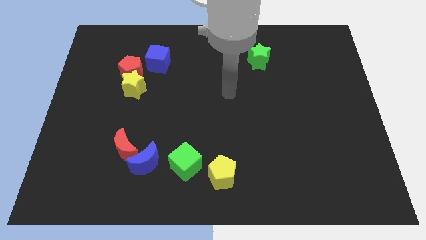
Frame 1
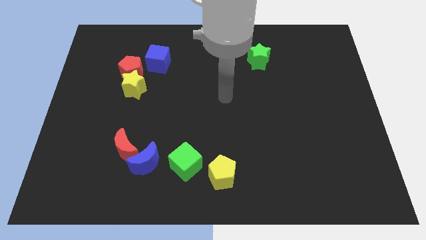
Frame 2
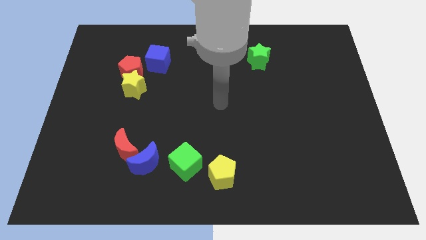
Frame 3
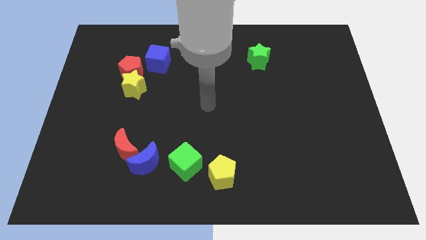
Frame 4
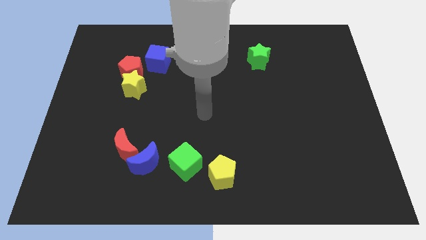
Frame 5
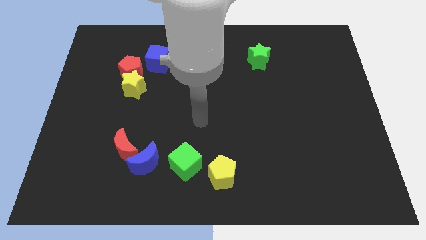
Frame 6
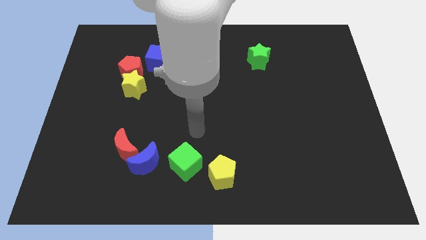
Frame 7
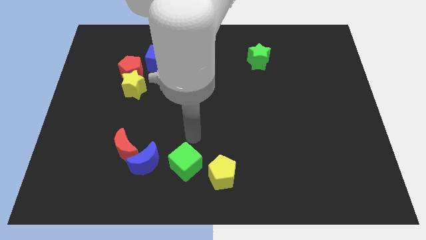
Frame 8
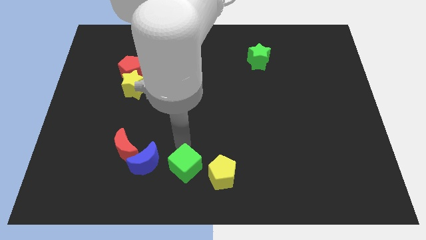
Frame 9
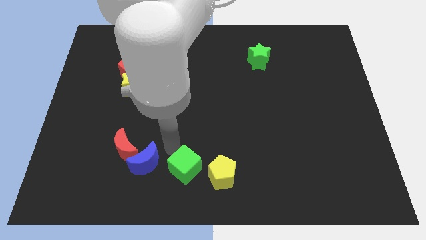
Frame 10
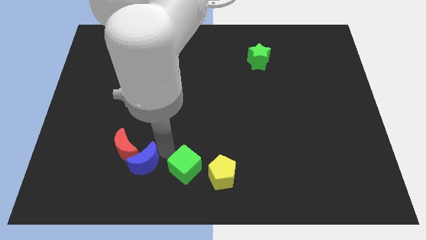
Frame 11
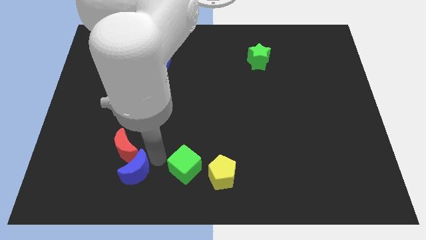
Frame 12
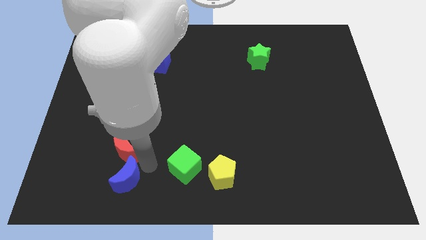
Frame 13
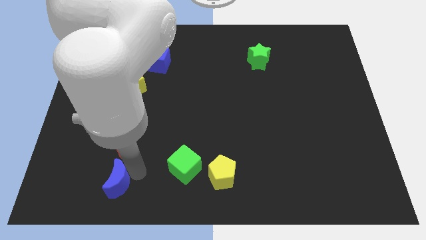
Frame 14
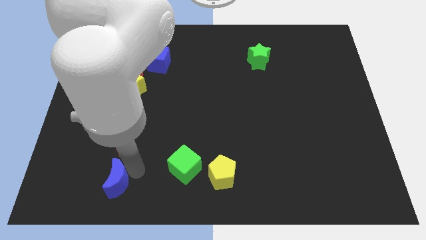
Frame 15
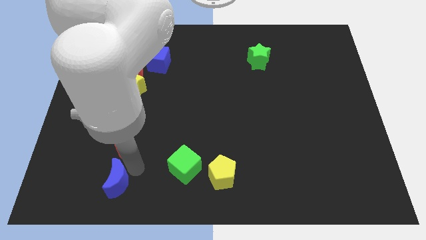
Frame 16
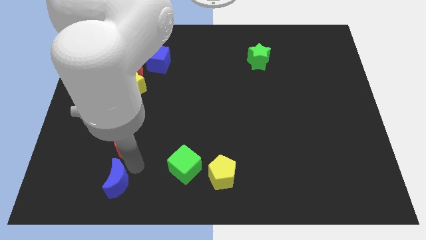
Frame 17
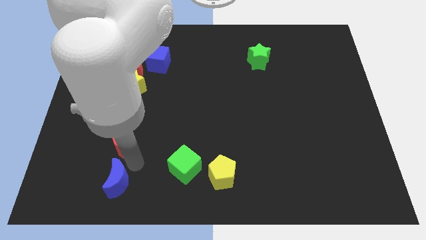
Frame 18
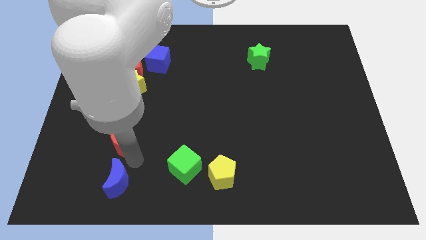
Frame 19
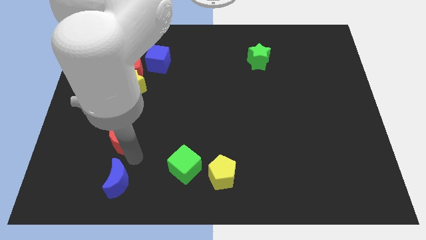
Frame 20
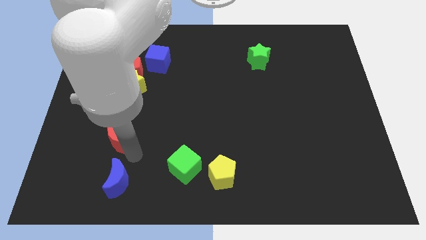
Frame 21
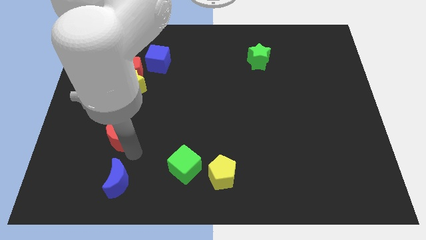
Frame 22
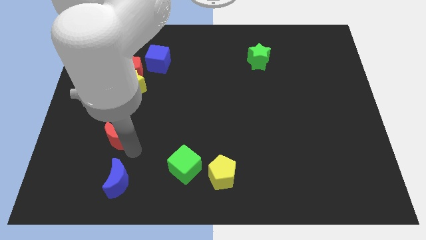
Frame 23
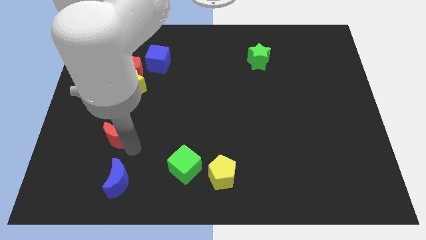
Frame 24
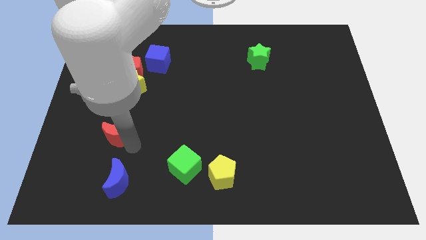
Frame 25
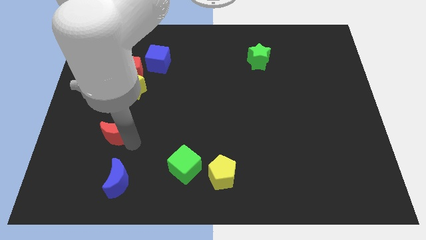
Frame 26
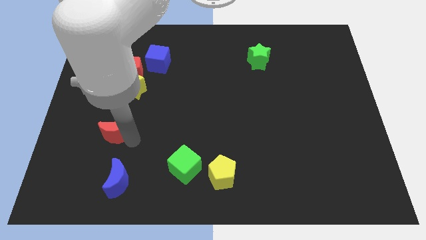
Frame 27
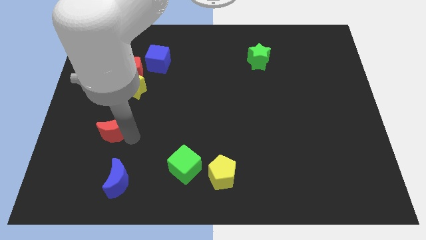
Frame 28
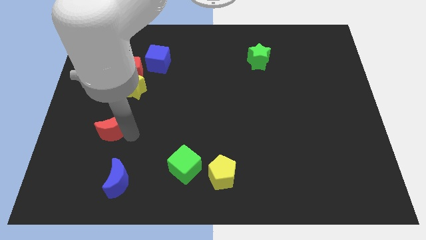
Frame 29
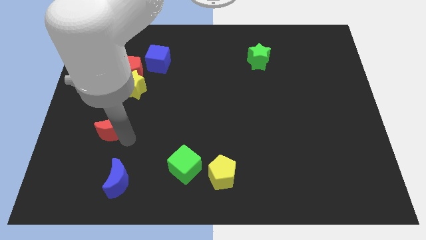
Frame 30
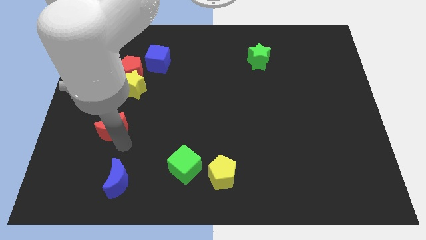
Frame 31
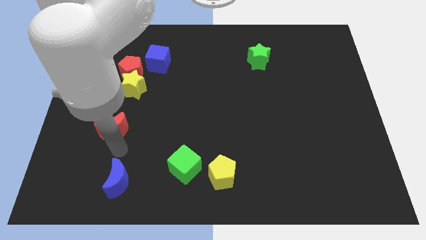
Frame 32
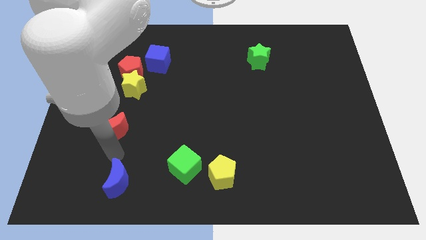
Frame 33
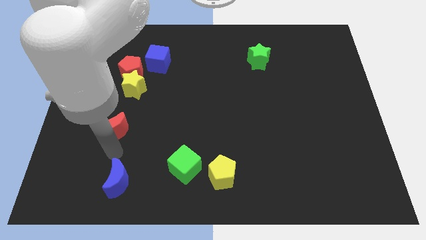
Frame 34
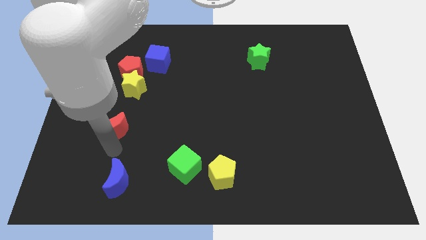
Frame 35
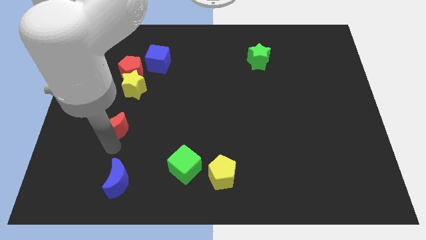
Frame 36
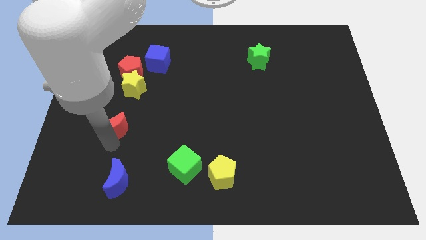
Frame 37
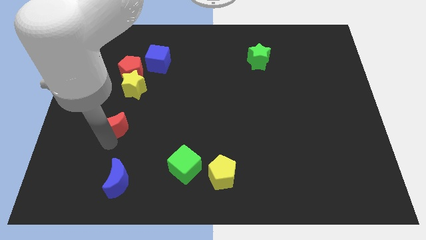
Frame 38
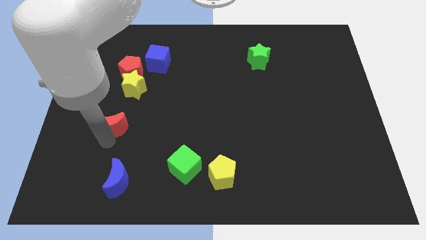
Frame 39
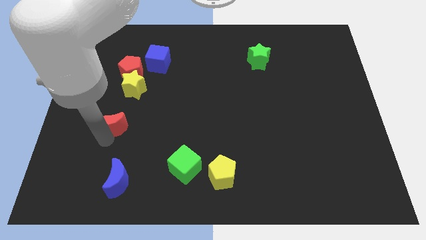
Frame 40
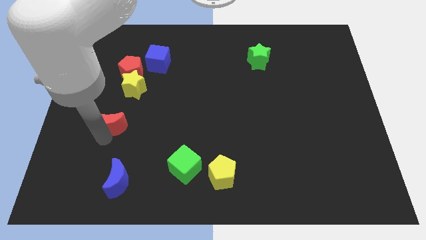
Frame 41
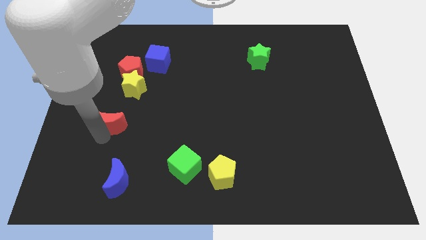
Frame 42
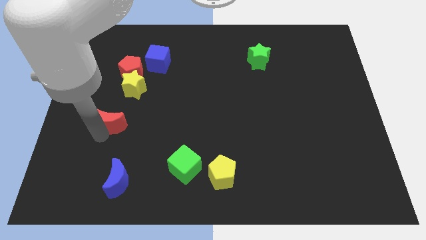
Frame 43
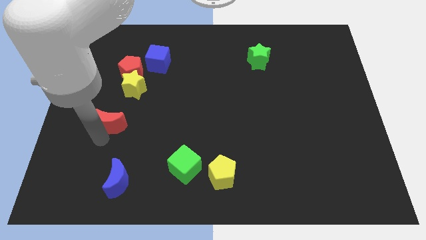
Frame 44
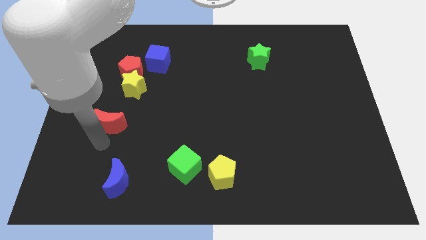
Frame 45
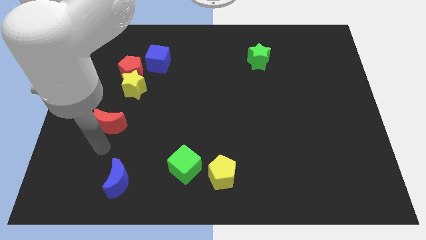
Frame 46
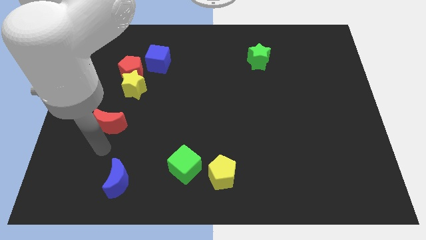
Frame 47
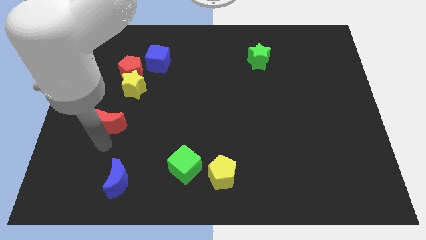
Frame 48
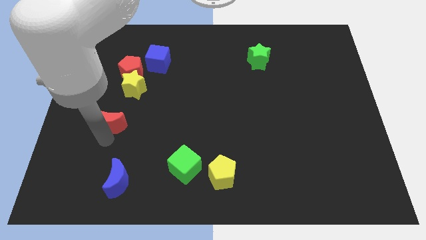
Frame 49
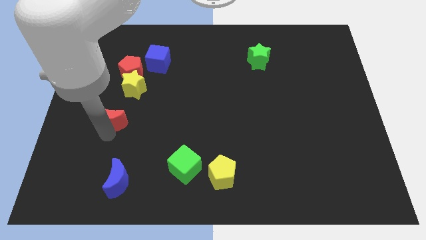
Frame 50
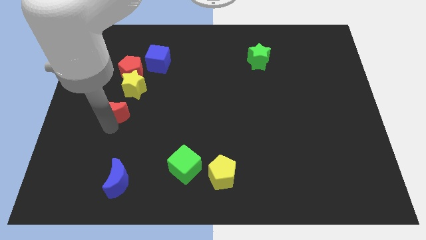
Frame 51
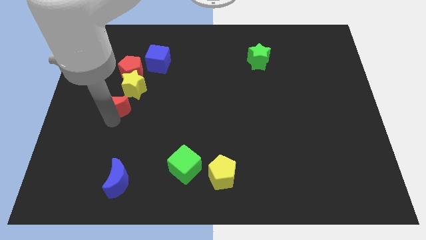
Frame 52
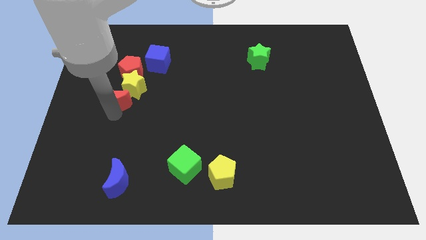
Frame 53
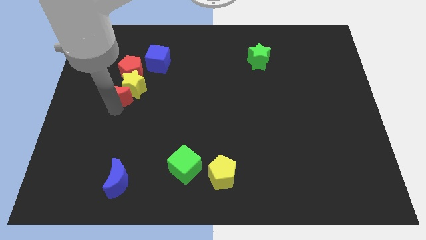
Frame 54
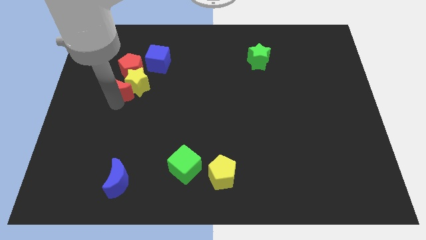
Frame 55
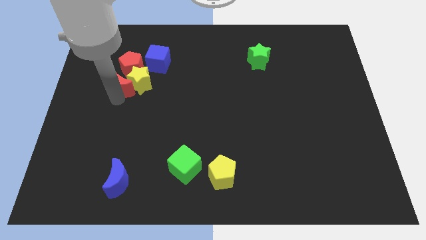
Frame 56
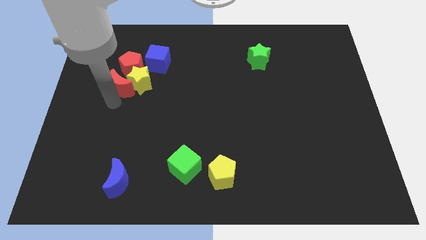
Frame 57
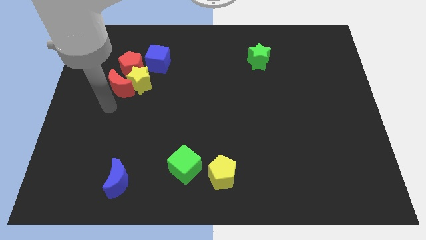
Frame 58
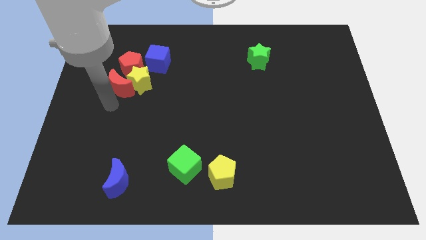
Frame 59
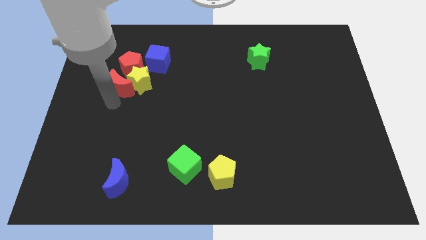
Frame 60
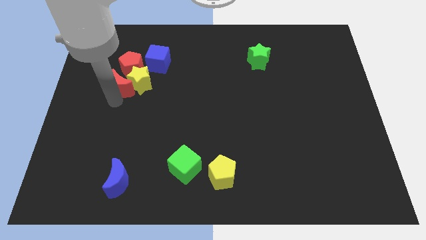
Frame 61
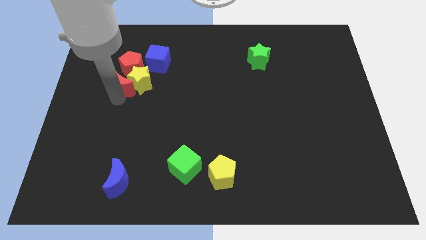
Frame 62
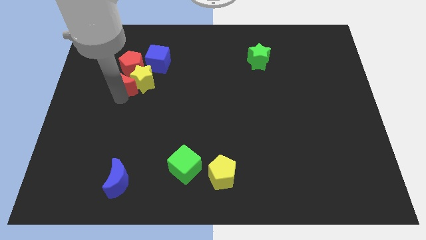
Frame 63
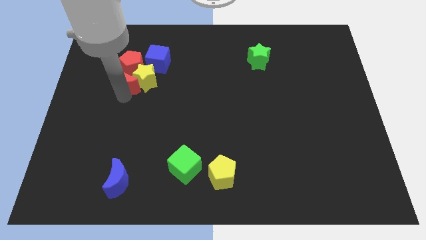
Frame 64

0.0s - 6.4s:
put the red moon next to the red pentagon

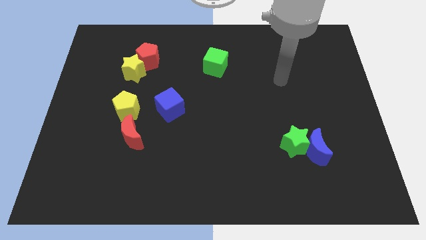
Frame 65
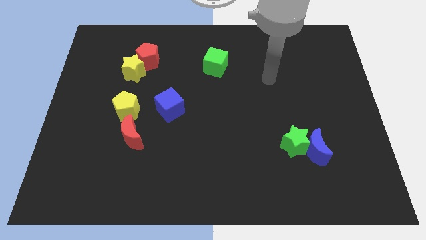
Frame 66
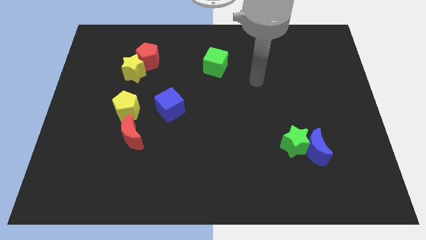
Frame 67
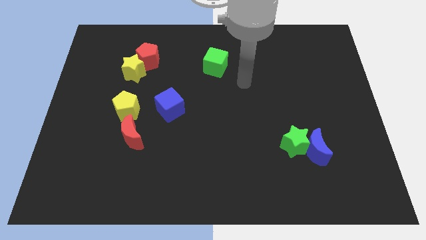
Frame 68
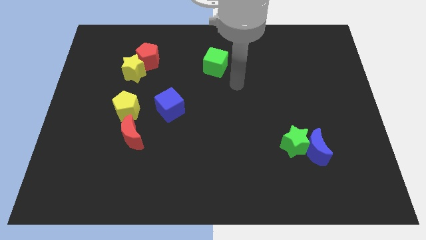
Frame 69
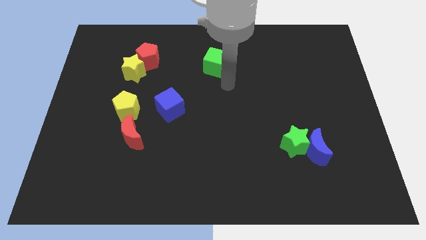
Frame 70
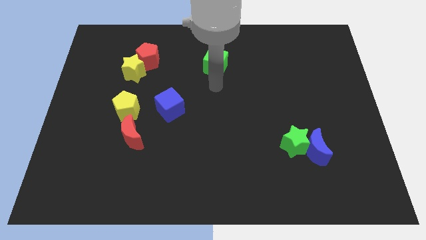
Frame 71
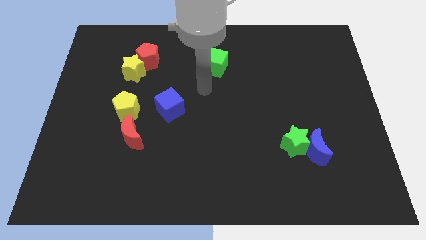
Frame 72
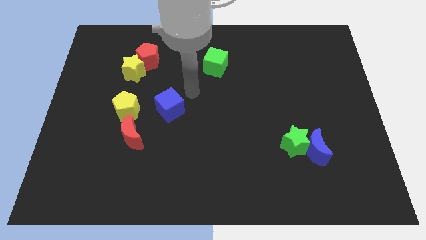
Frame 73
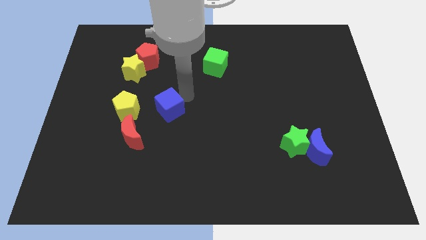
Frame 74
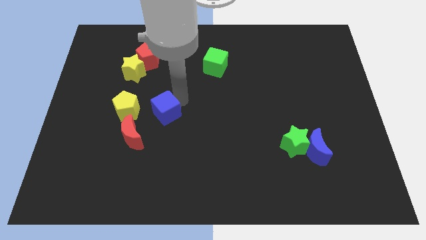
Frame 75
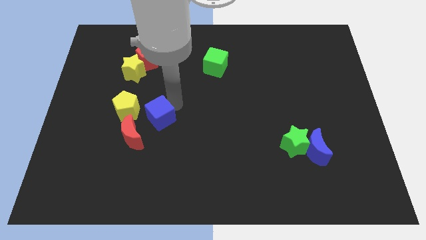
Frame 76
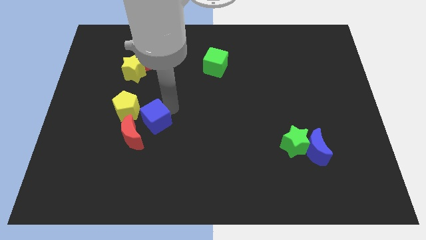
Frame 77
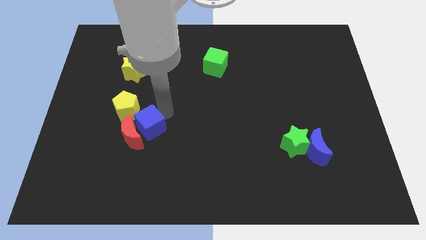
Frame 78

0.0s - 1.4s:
move the blue cube close to the red moon
